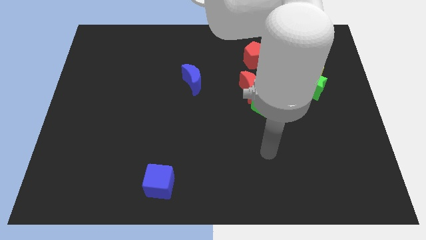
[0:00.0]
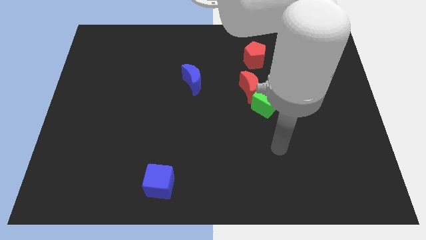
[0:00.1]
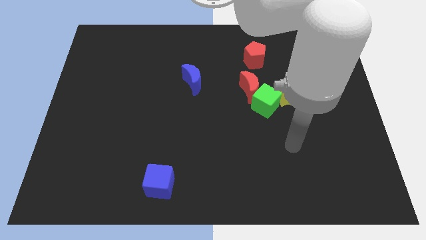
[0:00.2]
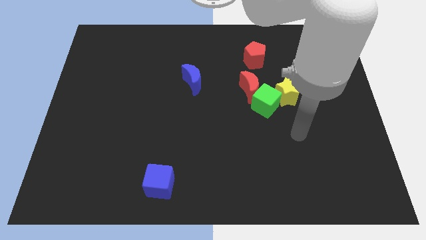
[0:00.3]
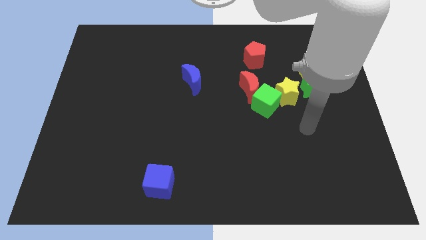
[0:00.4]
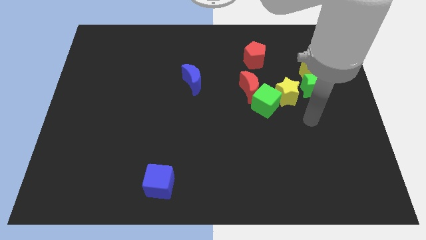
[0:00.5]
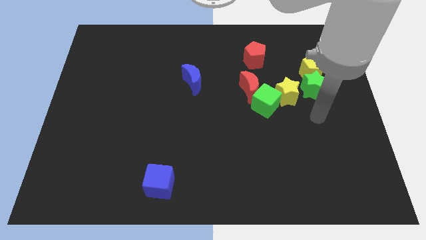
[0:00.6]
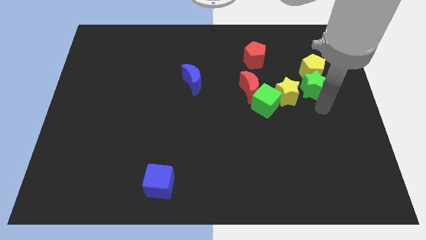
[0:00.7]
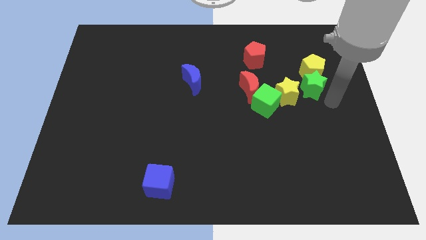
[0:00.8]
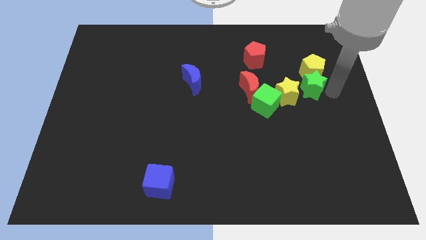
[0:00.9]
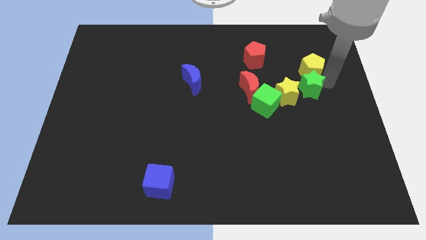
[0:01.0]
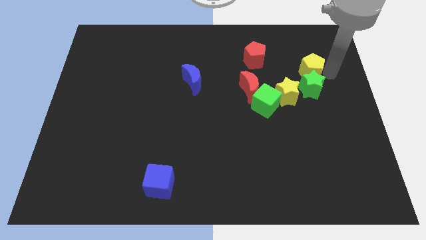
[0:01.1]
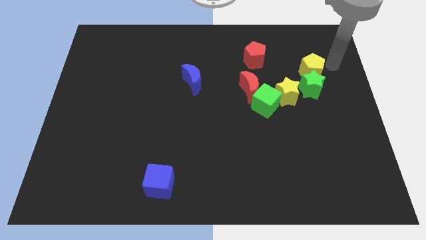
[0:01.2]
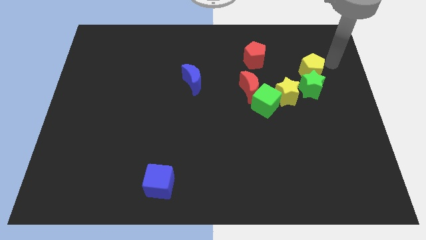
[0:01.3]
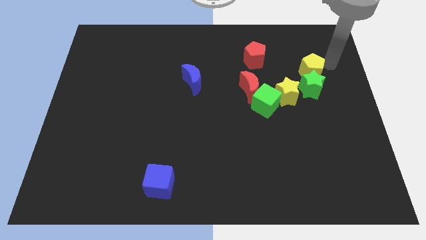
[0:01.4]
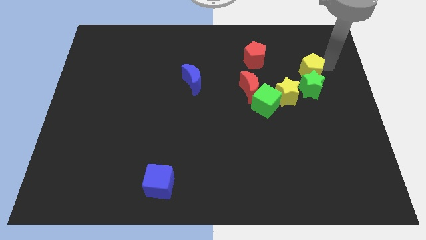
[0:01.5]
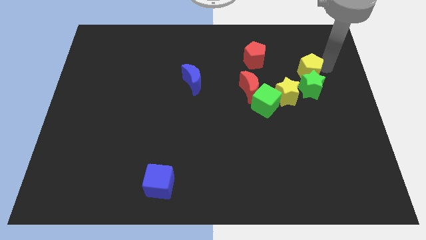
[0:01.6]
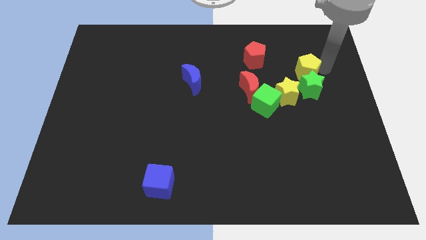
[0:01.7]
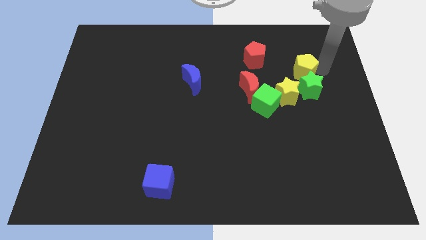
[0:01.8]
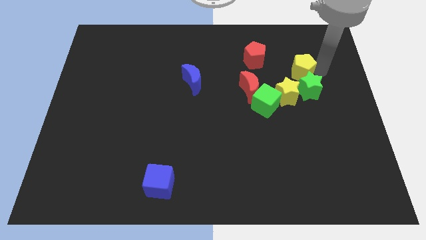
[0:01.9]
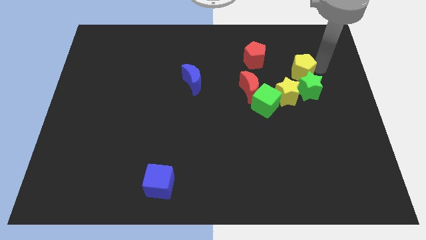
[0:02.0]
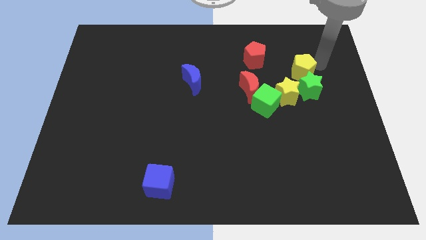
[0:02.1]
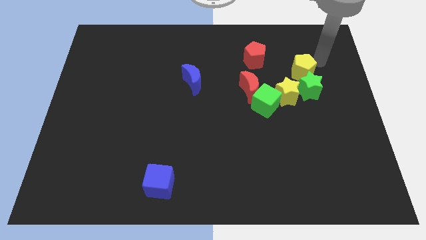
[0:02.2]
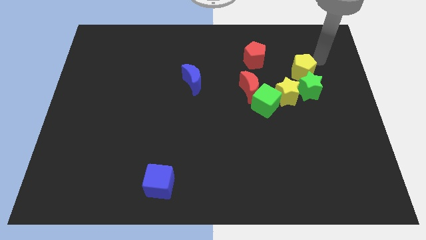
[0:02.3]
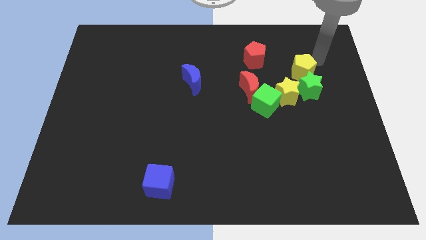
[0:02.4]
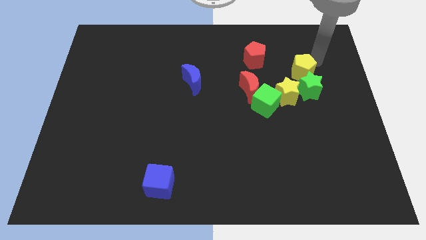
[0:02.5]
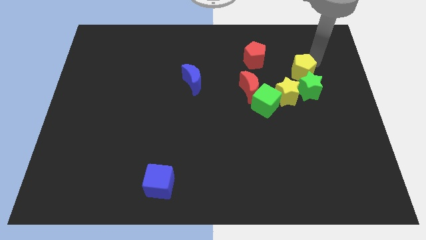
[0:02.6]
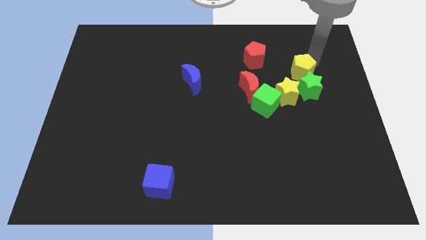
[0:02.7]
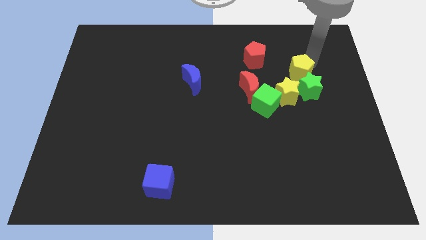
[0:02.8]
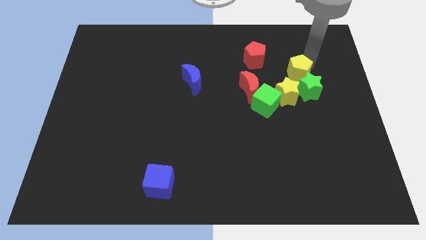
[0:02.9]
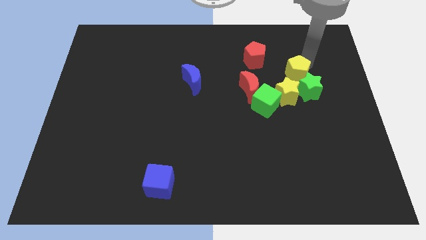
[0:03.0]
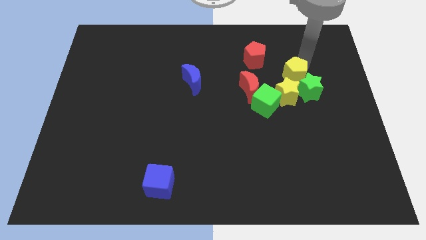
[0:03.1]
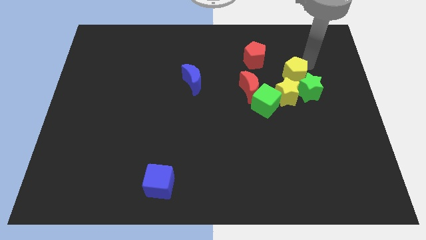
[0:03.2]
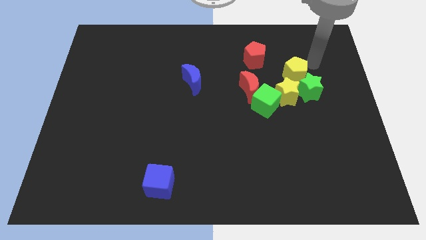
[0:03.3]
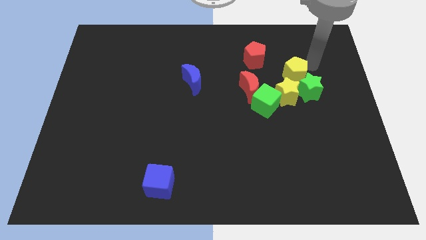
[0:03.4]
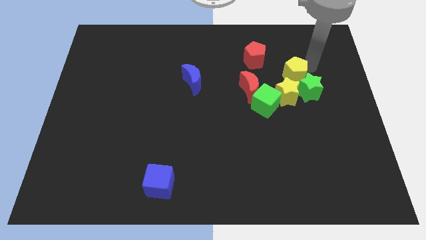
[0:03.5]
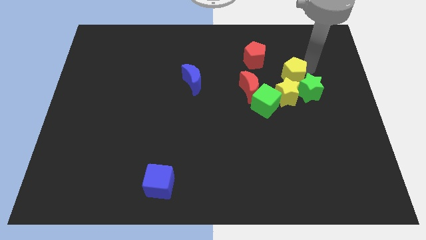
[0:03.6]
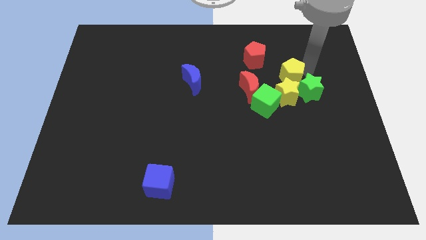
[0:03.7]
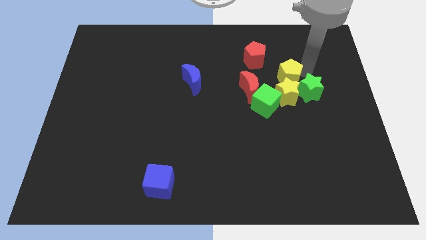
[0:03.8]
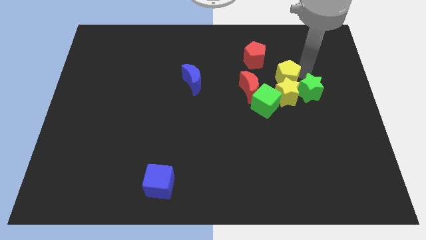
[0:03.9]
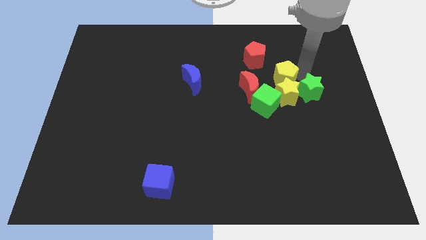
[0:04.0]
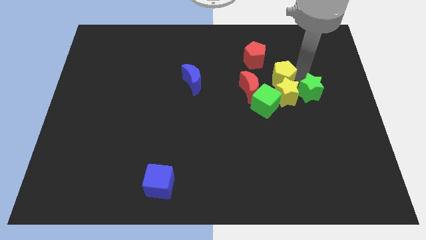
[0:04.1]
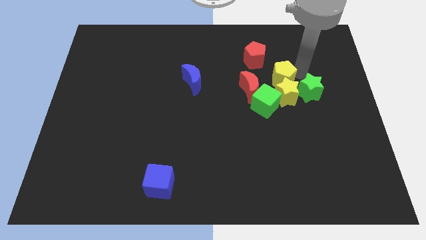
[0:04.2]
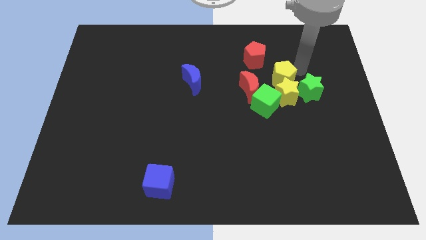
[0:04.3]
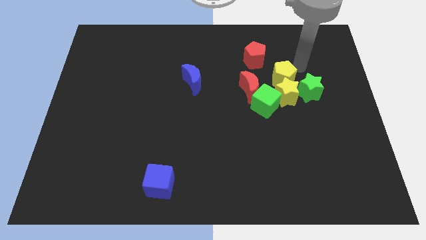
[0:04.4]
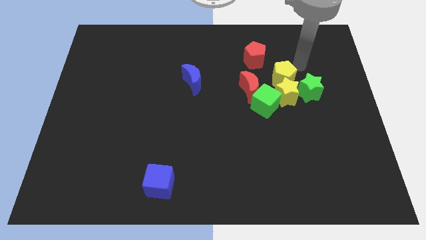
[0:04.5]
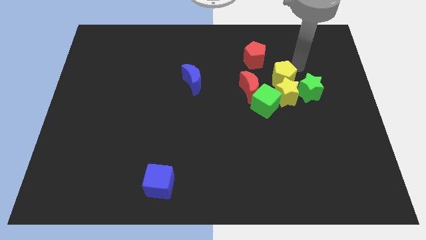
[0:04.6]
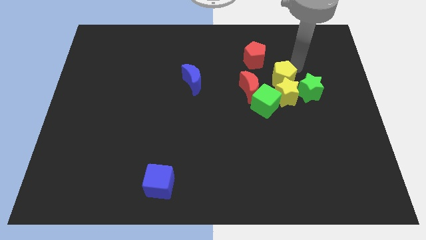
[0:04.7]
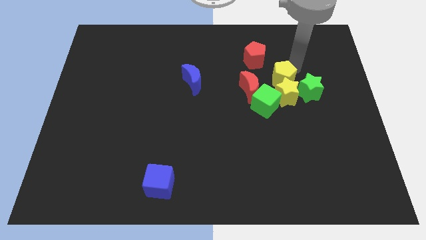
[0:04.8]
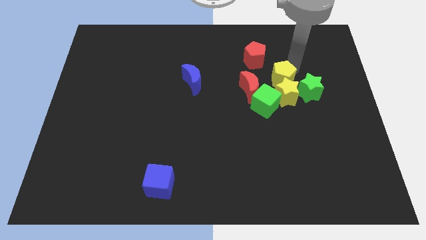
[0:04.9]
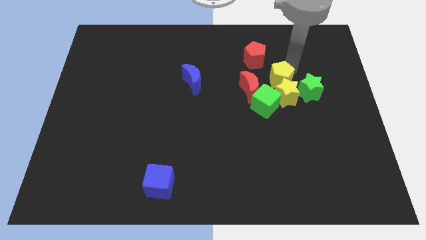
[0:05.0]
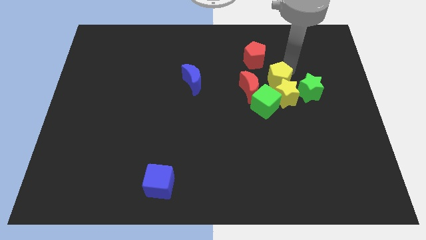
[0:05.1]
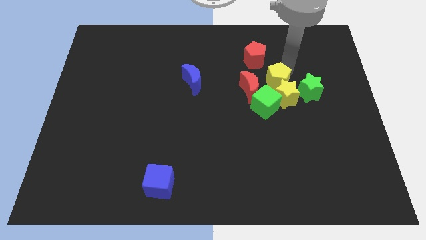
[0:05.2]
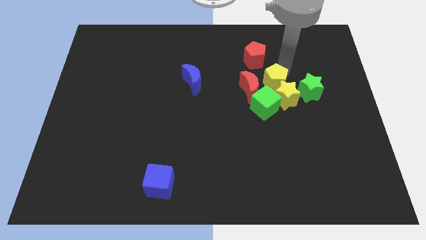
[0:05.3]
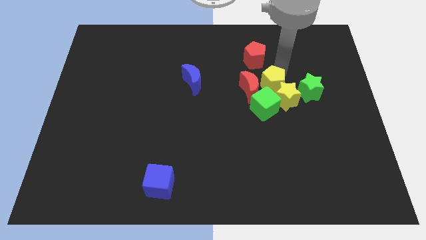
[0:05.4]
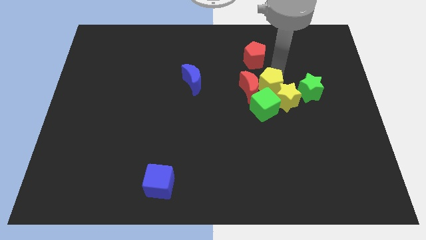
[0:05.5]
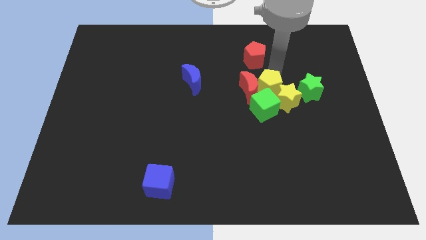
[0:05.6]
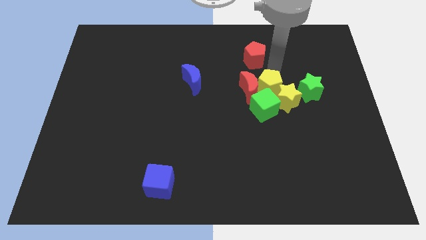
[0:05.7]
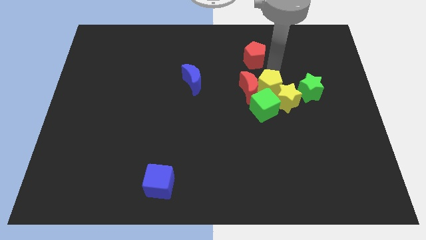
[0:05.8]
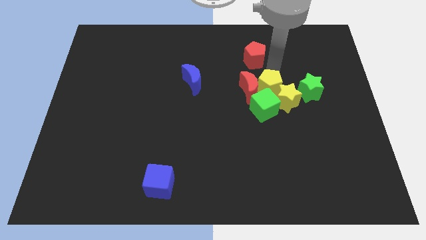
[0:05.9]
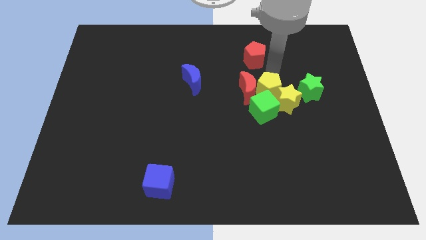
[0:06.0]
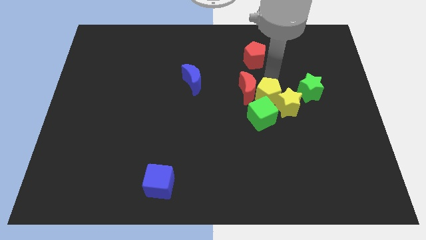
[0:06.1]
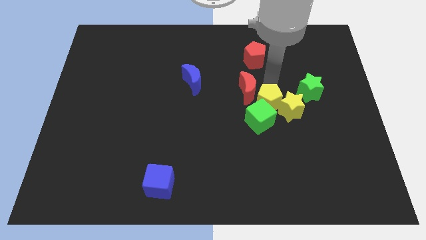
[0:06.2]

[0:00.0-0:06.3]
move the yellow pentagon next to the green cube

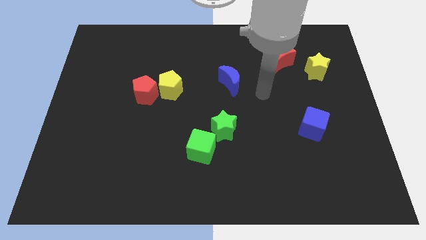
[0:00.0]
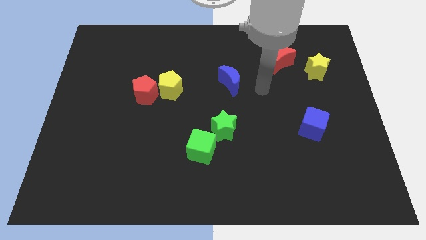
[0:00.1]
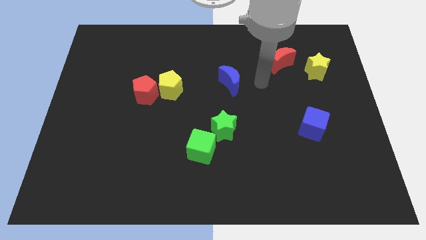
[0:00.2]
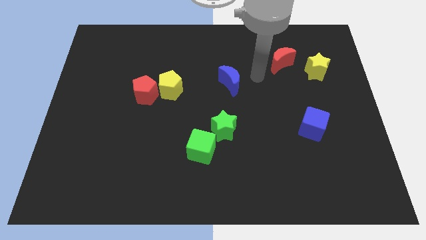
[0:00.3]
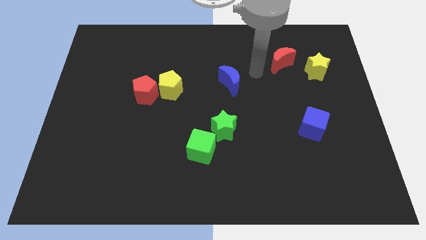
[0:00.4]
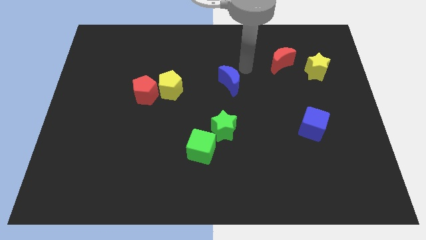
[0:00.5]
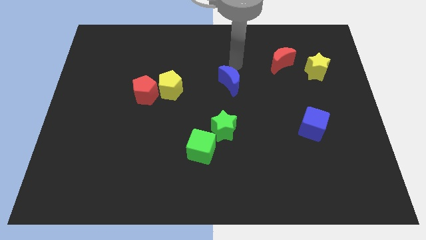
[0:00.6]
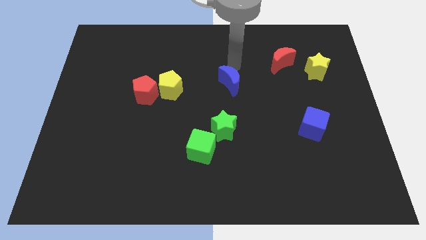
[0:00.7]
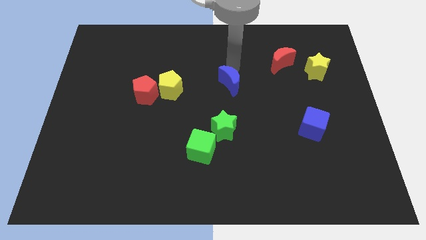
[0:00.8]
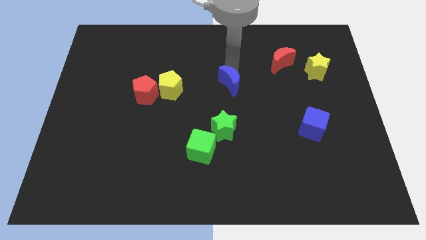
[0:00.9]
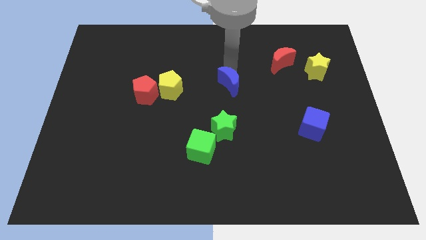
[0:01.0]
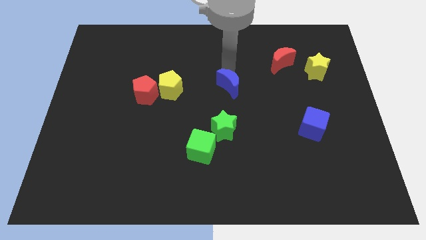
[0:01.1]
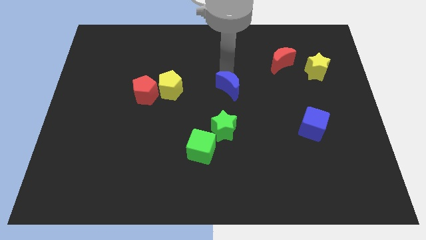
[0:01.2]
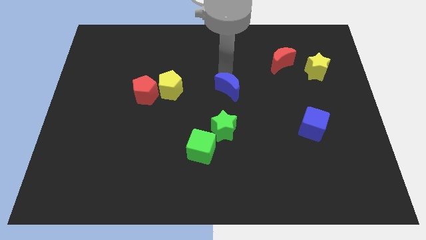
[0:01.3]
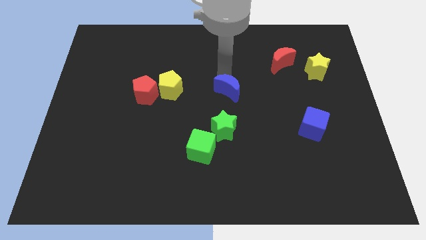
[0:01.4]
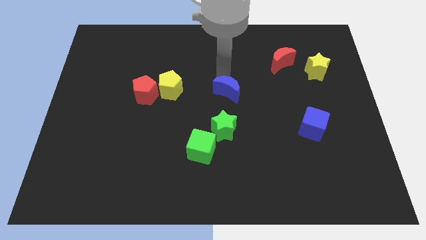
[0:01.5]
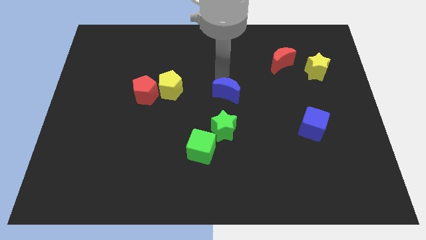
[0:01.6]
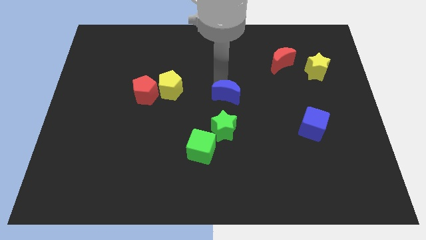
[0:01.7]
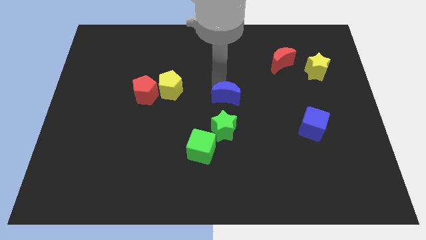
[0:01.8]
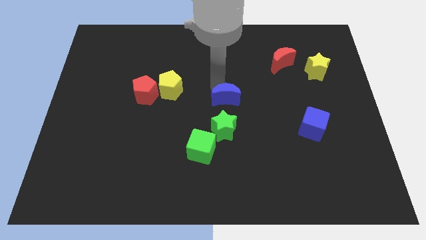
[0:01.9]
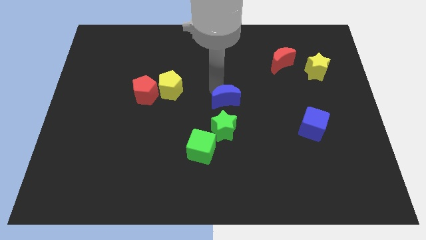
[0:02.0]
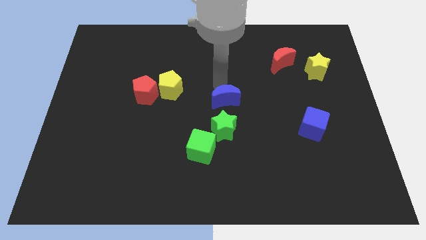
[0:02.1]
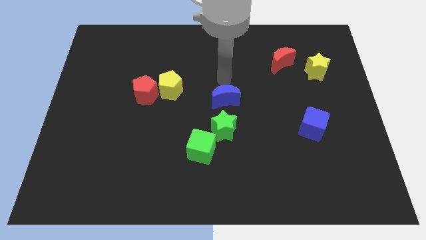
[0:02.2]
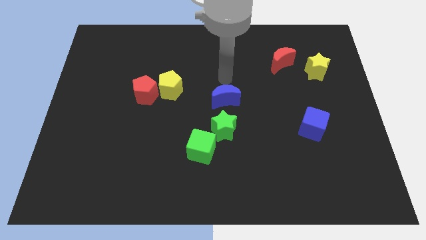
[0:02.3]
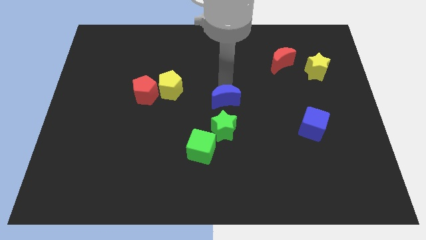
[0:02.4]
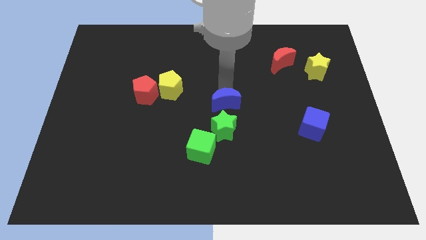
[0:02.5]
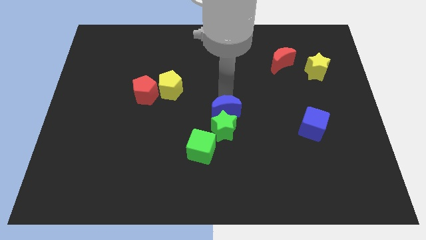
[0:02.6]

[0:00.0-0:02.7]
push the blue moon towards the green star
